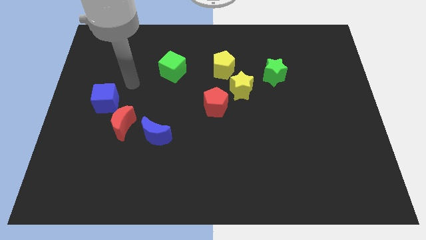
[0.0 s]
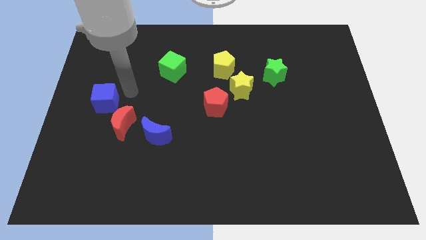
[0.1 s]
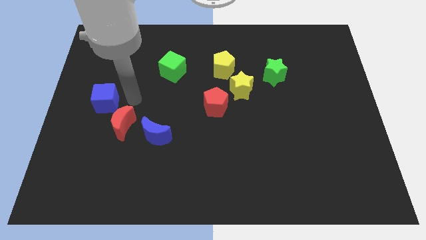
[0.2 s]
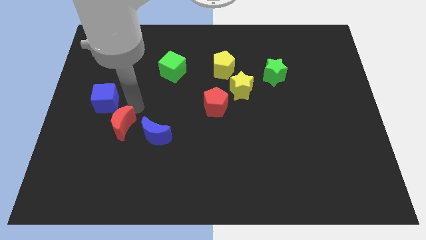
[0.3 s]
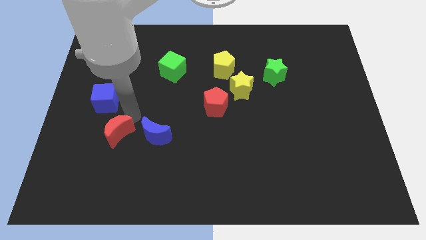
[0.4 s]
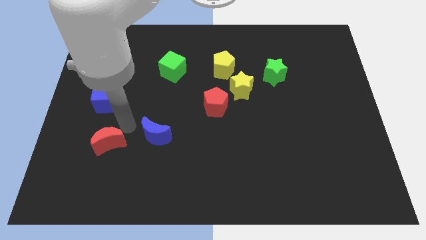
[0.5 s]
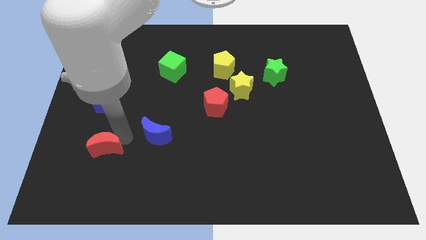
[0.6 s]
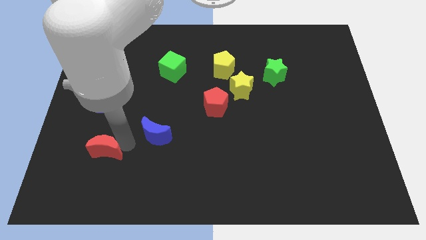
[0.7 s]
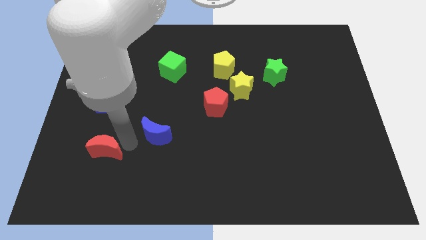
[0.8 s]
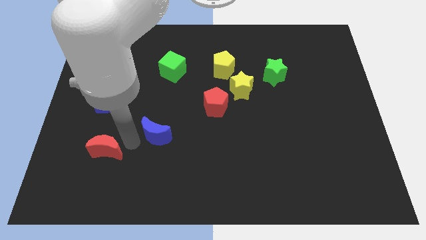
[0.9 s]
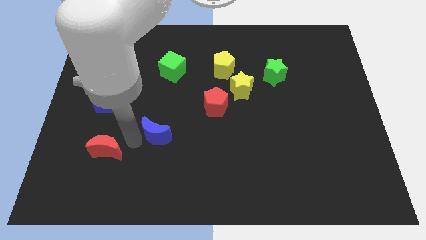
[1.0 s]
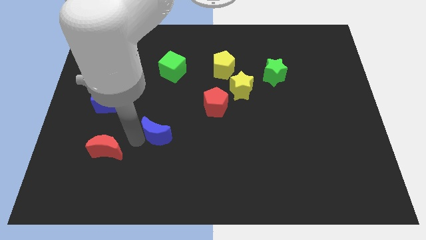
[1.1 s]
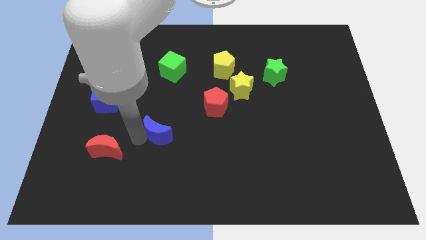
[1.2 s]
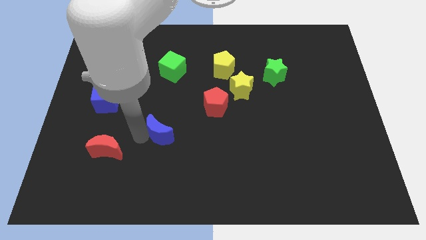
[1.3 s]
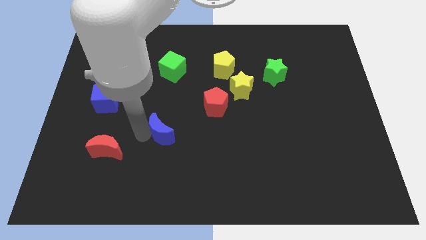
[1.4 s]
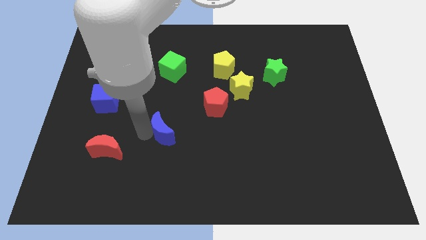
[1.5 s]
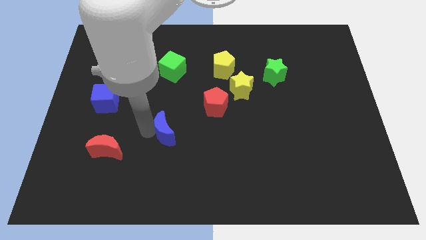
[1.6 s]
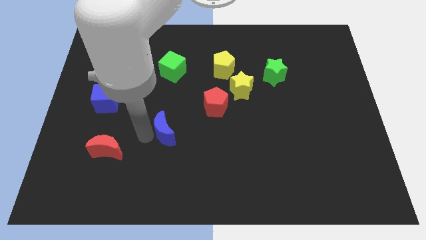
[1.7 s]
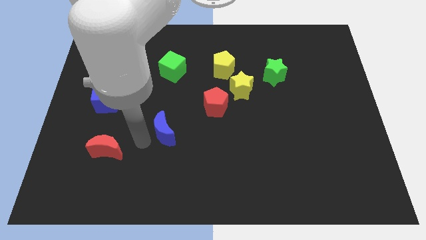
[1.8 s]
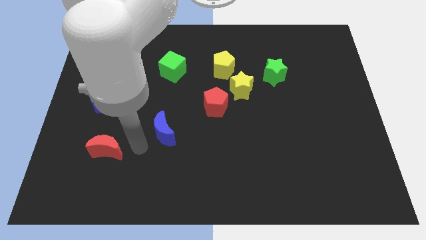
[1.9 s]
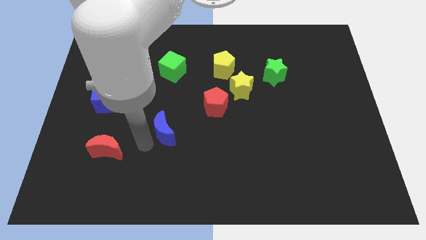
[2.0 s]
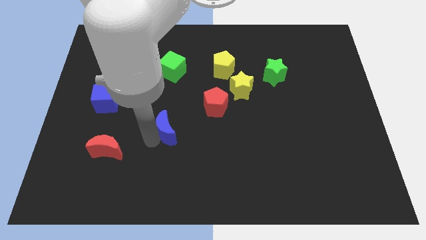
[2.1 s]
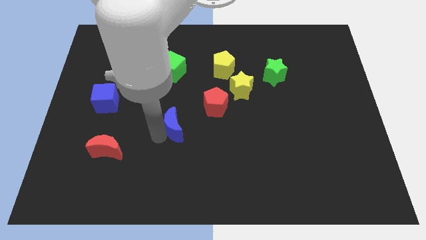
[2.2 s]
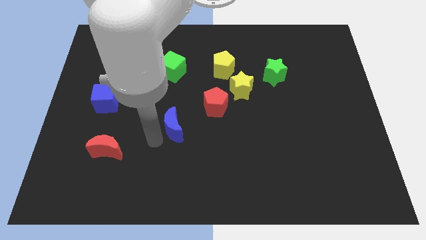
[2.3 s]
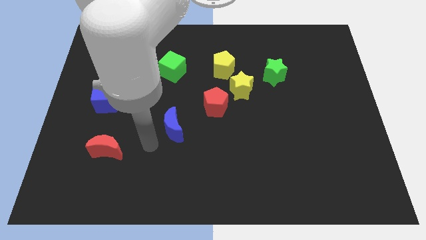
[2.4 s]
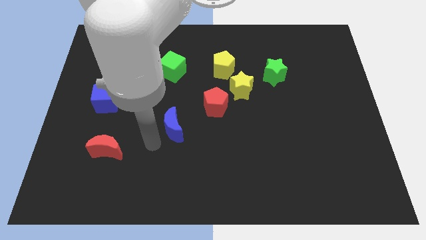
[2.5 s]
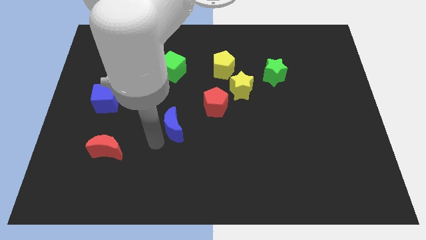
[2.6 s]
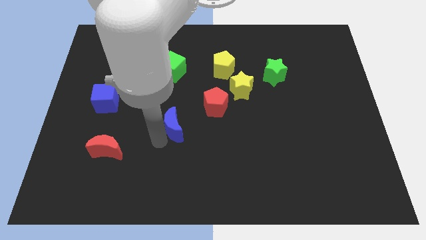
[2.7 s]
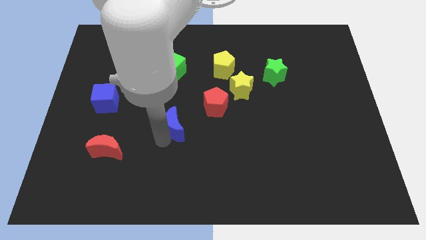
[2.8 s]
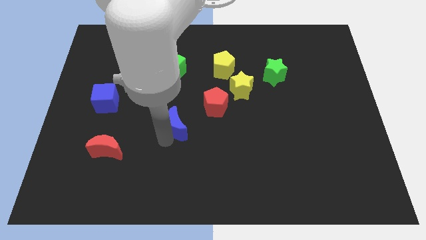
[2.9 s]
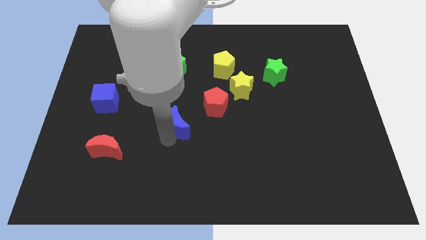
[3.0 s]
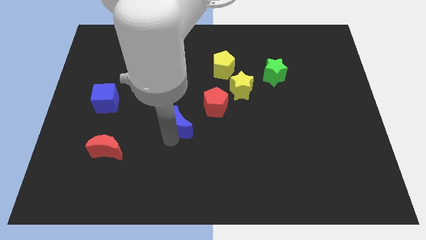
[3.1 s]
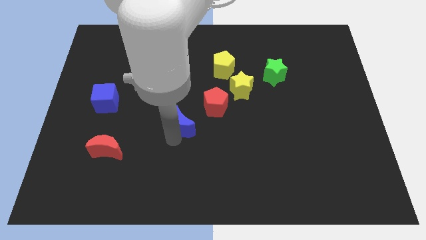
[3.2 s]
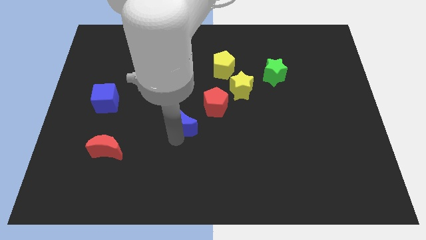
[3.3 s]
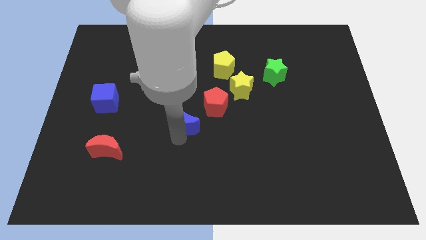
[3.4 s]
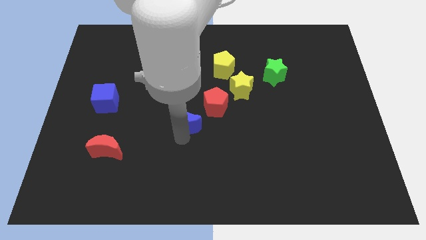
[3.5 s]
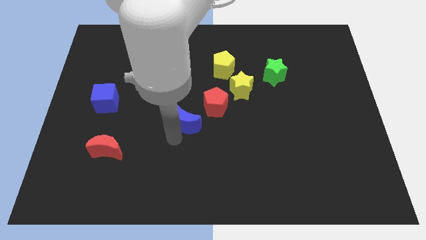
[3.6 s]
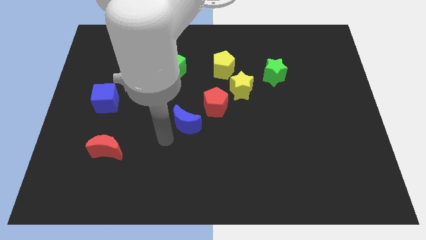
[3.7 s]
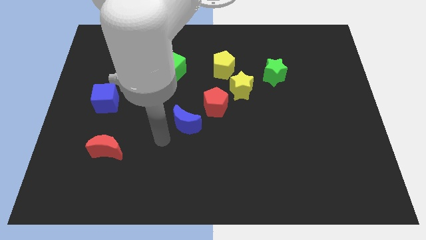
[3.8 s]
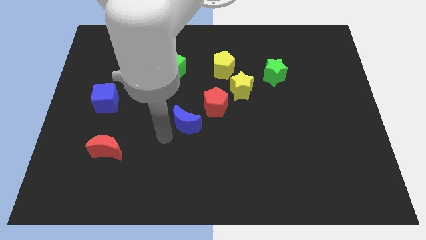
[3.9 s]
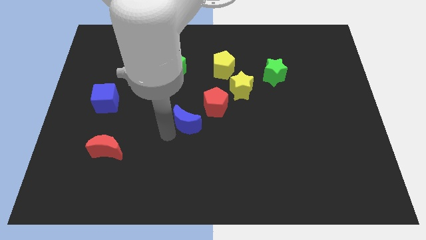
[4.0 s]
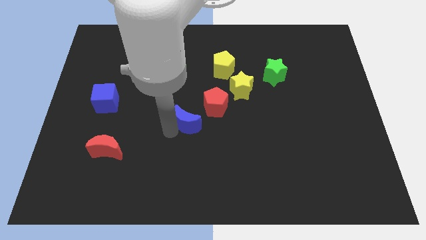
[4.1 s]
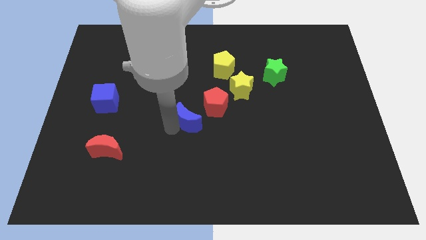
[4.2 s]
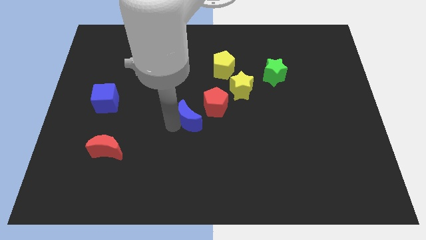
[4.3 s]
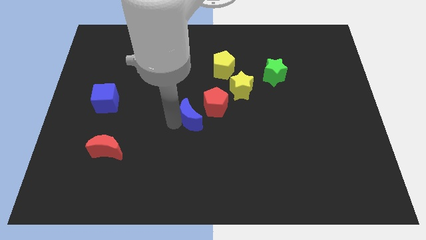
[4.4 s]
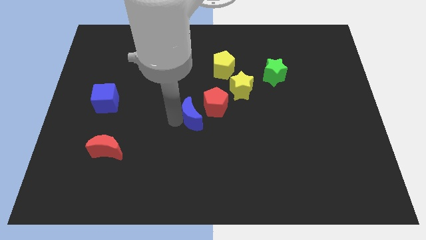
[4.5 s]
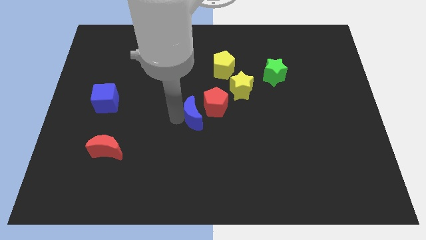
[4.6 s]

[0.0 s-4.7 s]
push the blue moon to the red pentagon

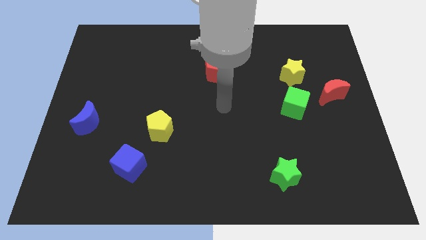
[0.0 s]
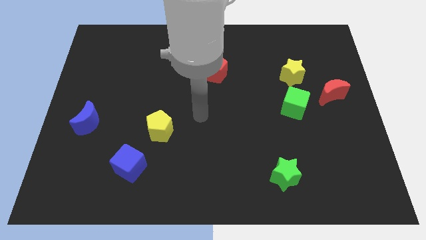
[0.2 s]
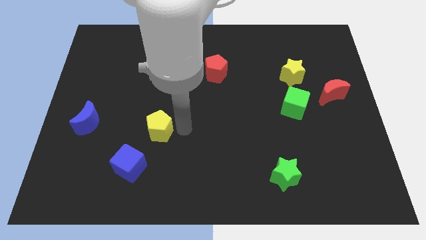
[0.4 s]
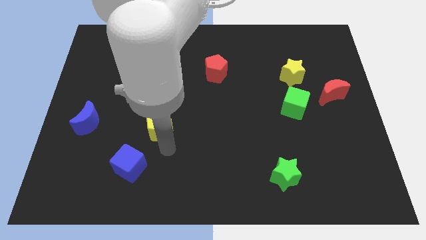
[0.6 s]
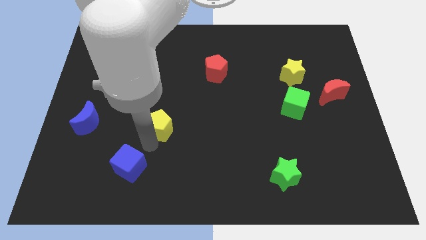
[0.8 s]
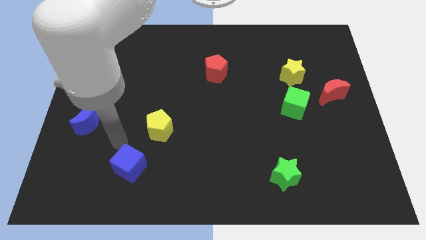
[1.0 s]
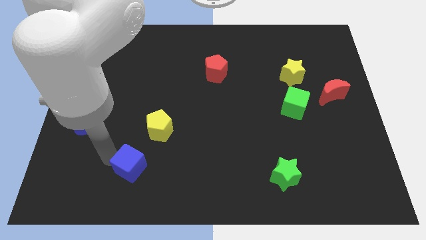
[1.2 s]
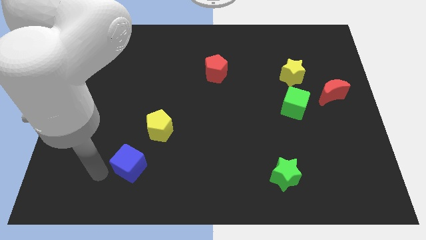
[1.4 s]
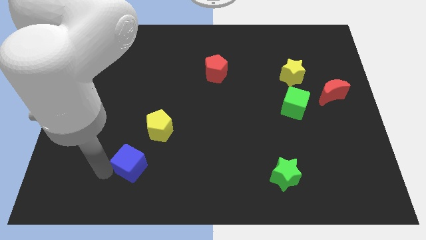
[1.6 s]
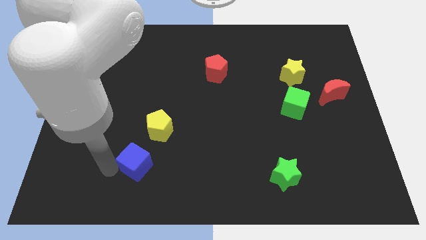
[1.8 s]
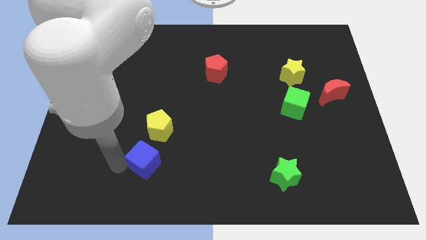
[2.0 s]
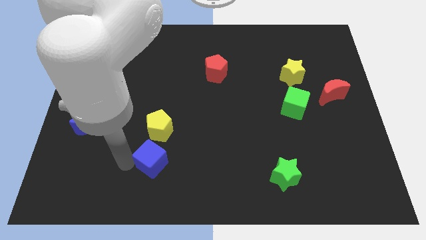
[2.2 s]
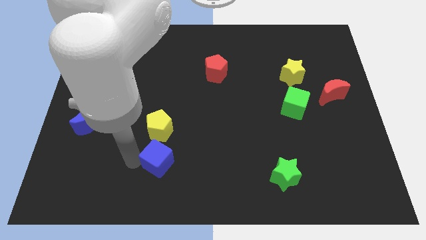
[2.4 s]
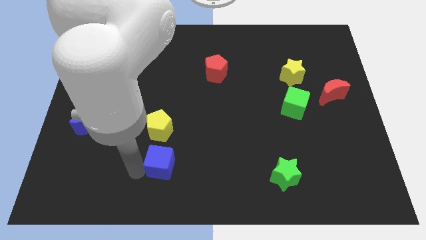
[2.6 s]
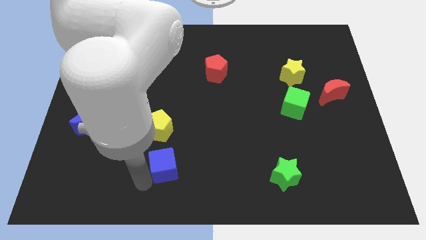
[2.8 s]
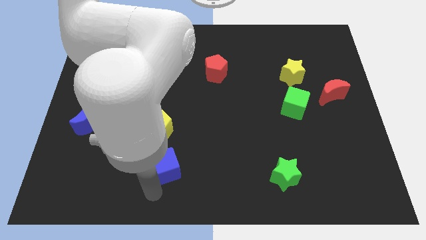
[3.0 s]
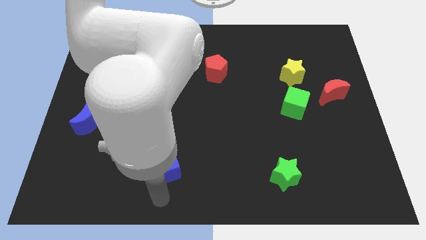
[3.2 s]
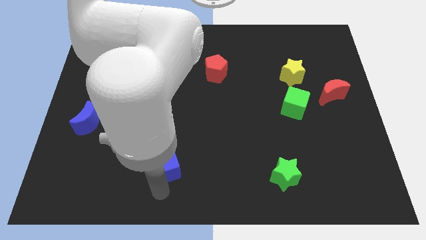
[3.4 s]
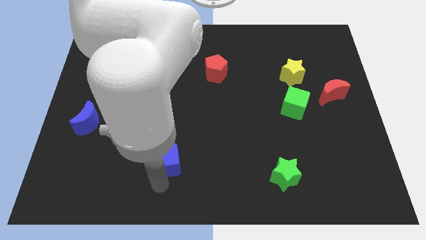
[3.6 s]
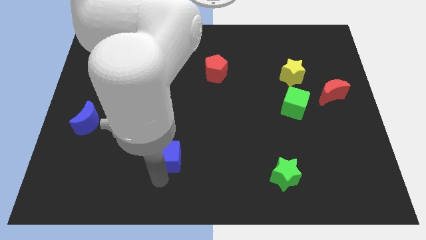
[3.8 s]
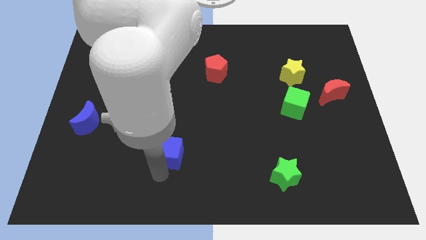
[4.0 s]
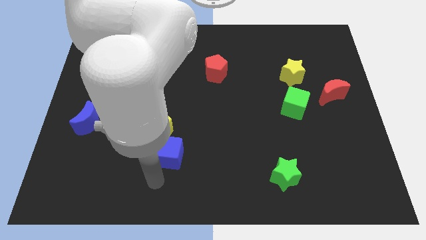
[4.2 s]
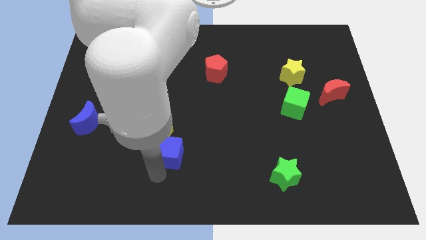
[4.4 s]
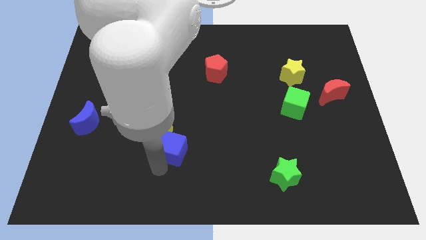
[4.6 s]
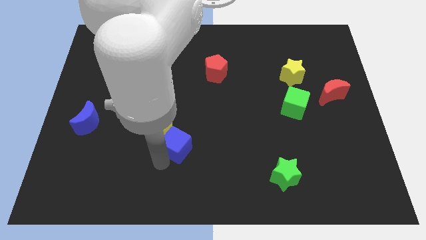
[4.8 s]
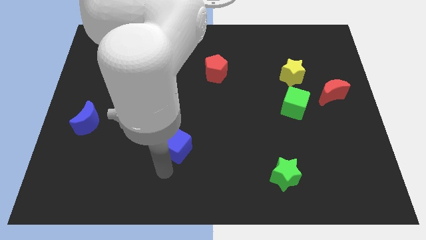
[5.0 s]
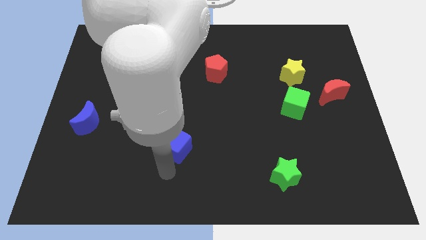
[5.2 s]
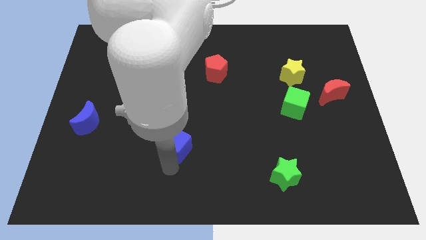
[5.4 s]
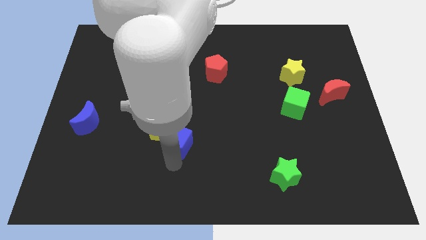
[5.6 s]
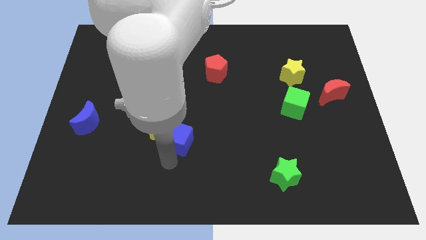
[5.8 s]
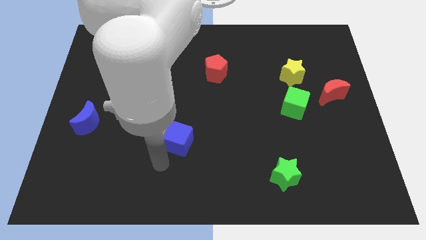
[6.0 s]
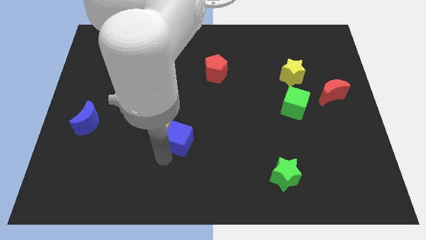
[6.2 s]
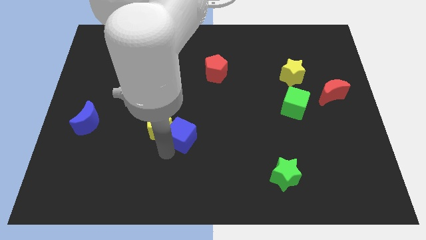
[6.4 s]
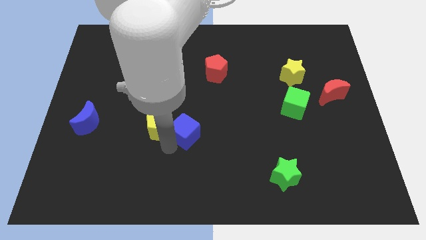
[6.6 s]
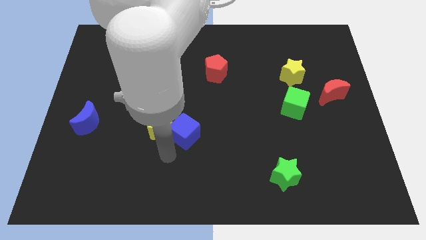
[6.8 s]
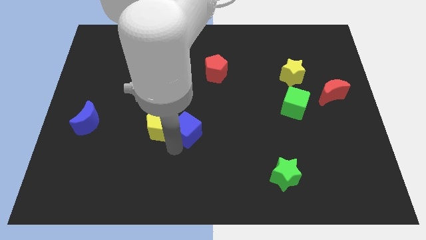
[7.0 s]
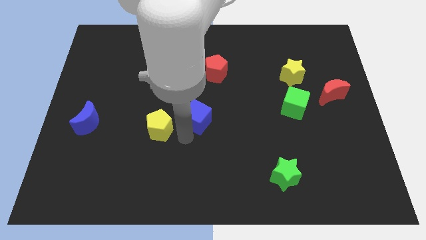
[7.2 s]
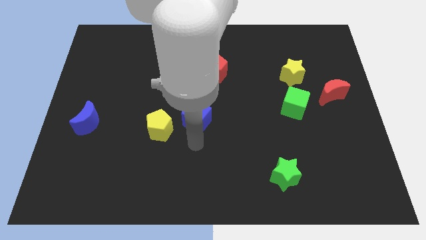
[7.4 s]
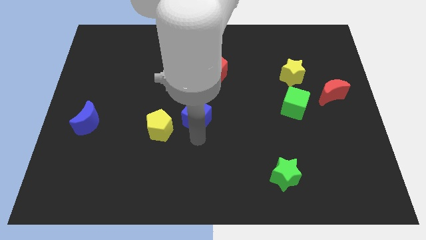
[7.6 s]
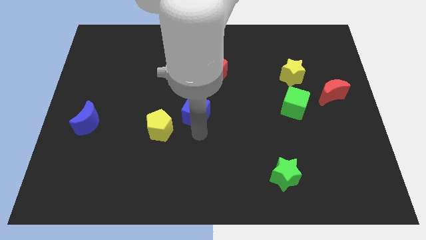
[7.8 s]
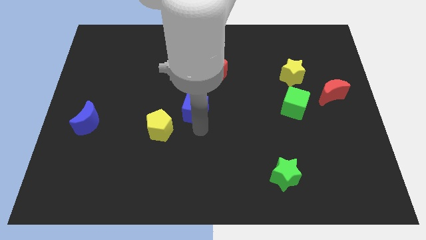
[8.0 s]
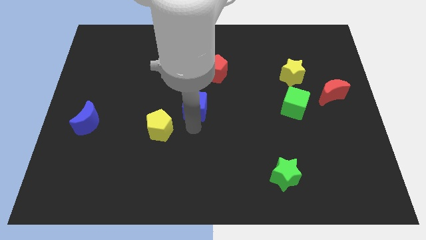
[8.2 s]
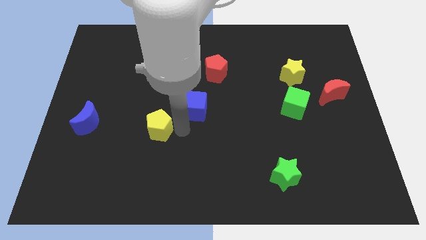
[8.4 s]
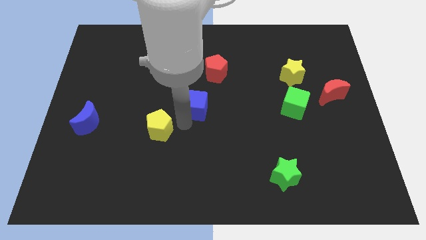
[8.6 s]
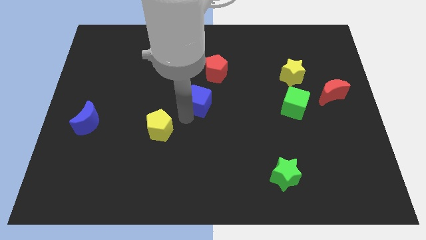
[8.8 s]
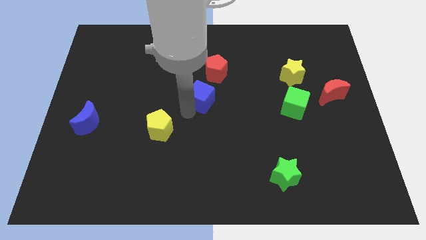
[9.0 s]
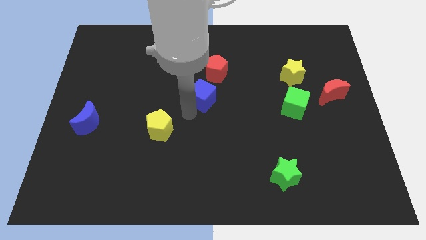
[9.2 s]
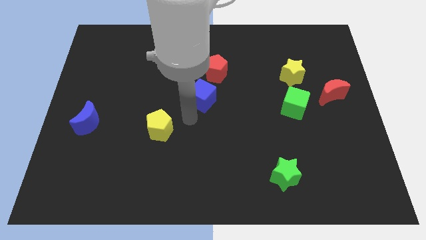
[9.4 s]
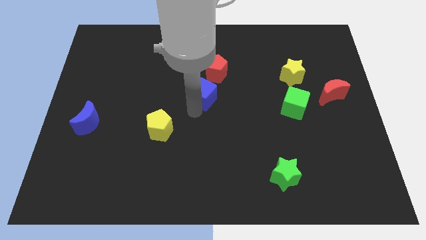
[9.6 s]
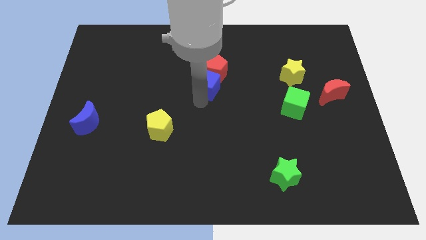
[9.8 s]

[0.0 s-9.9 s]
slide the blue cube next to the red pentagon
